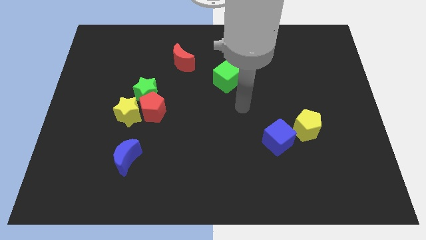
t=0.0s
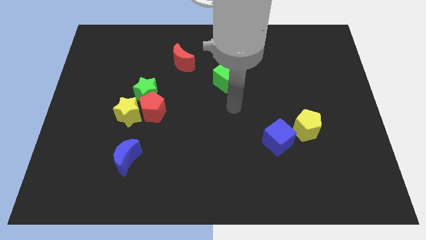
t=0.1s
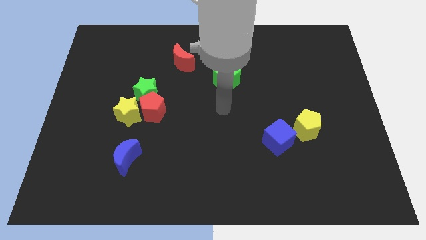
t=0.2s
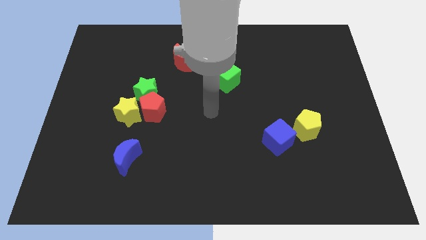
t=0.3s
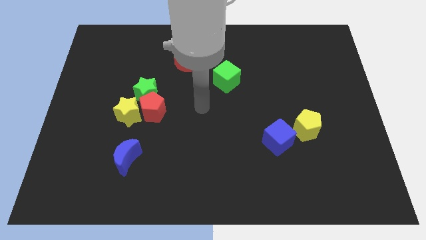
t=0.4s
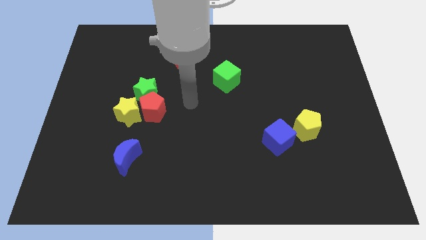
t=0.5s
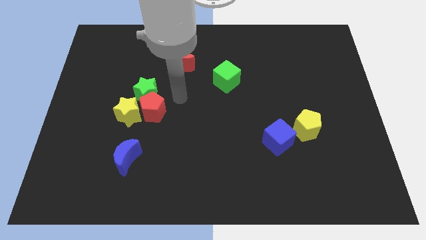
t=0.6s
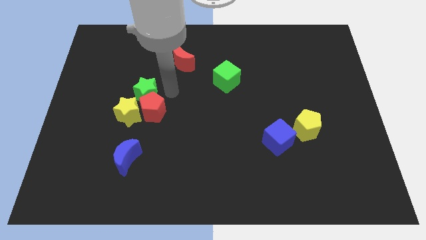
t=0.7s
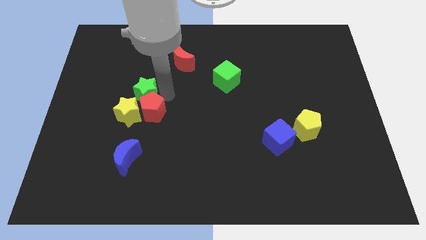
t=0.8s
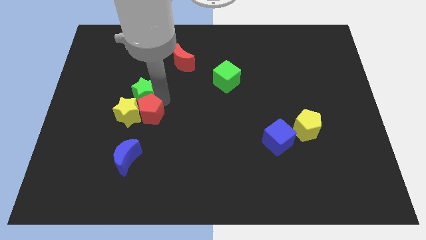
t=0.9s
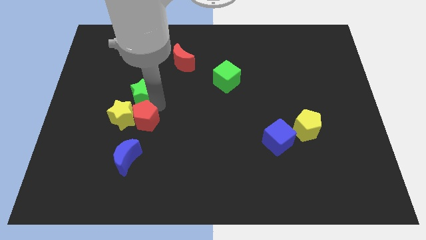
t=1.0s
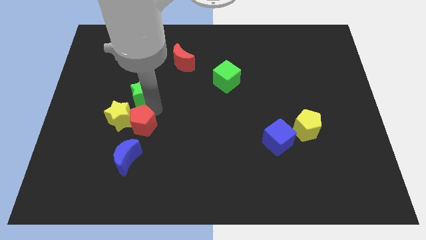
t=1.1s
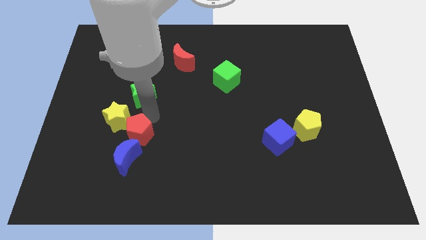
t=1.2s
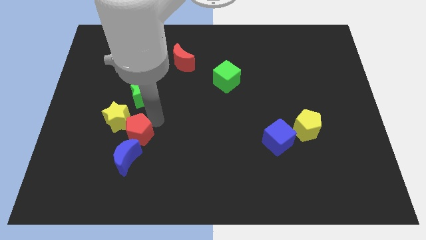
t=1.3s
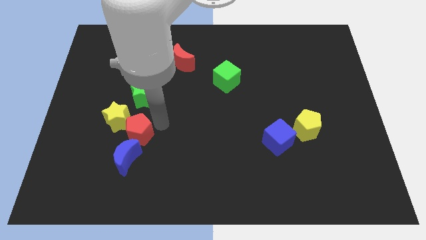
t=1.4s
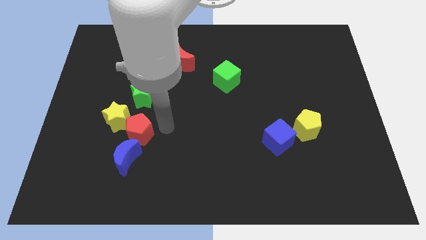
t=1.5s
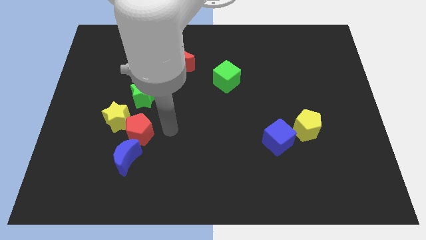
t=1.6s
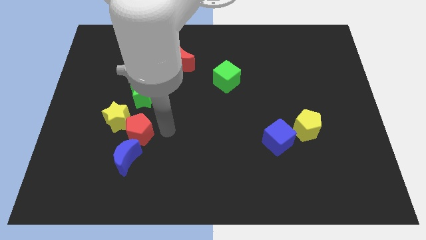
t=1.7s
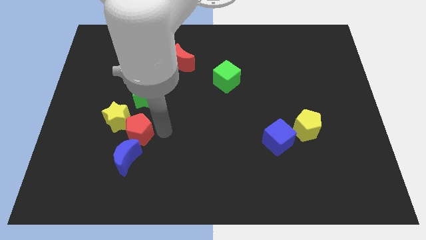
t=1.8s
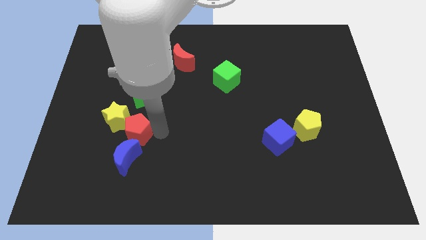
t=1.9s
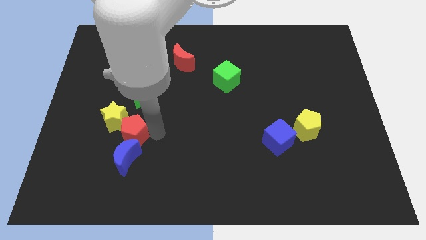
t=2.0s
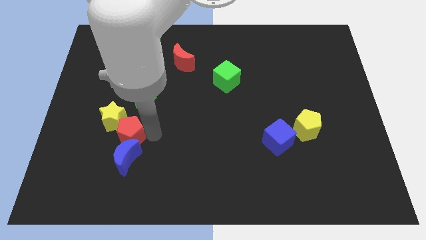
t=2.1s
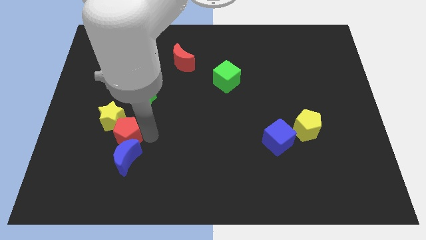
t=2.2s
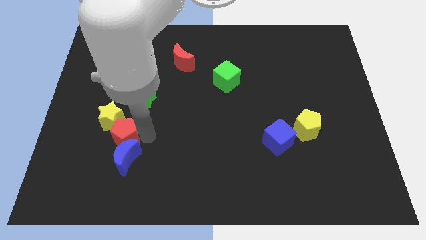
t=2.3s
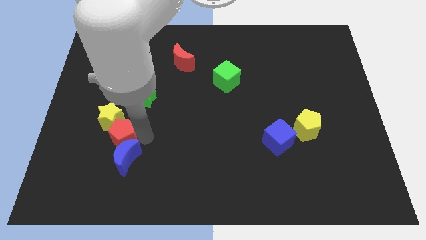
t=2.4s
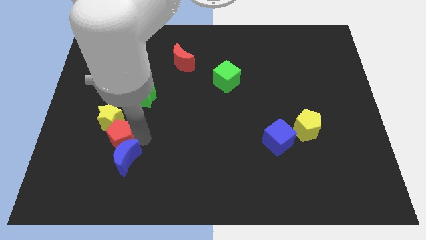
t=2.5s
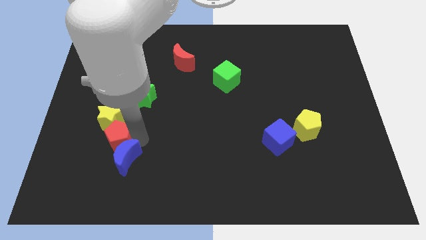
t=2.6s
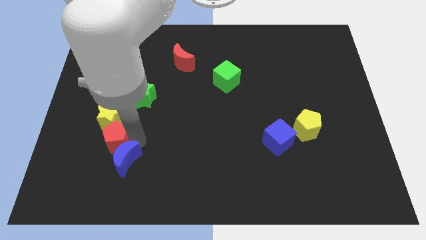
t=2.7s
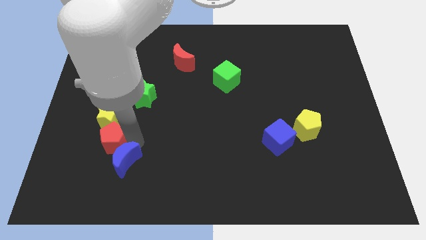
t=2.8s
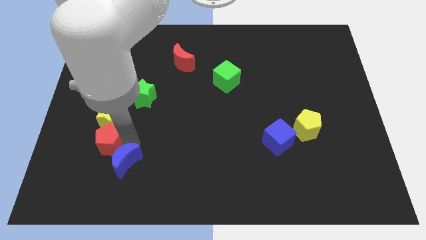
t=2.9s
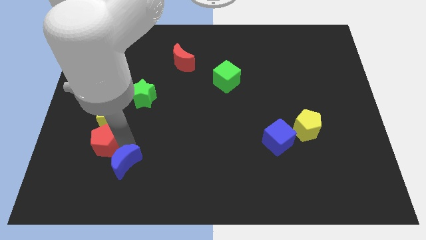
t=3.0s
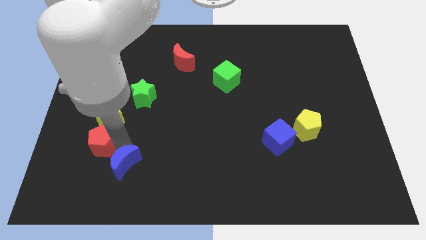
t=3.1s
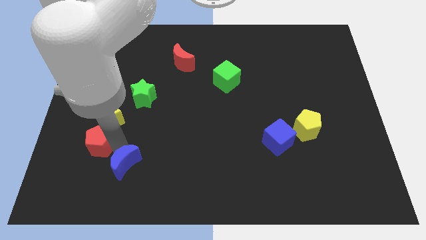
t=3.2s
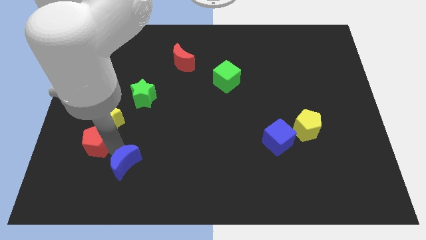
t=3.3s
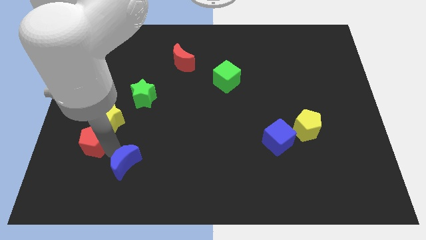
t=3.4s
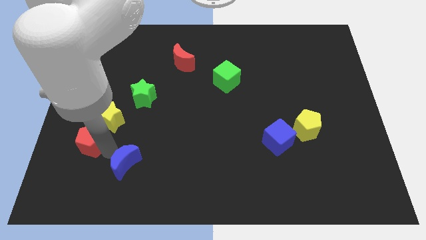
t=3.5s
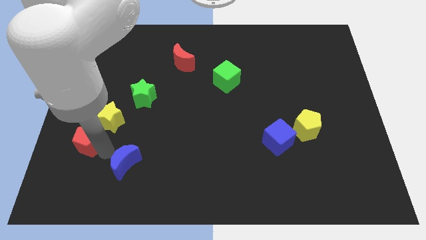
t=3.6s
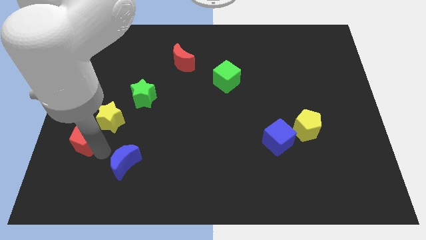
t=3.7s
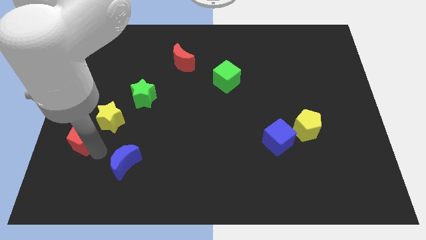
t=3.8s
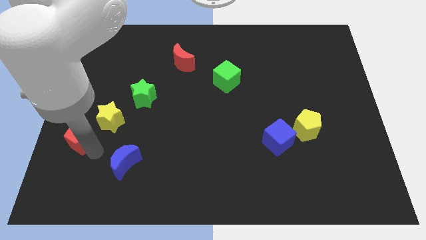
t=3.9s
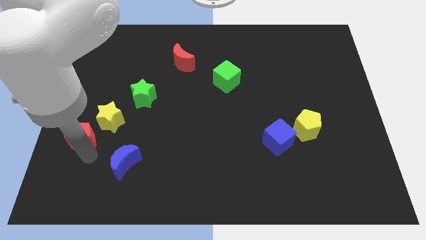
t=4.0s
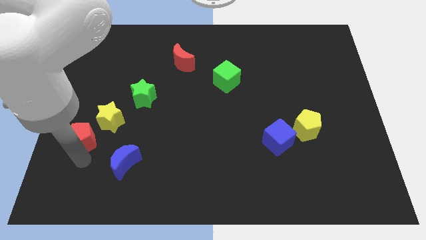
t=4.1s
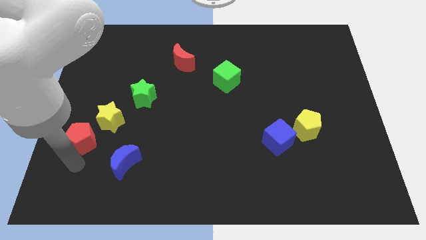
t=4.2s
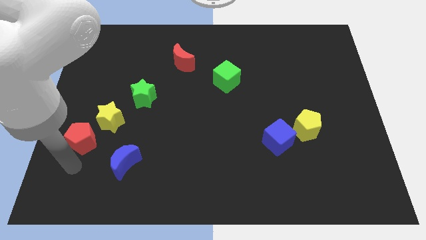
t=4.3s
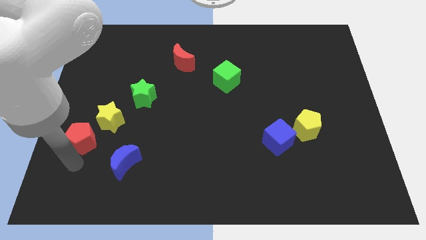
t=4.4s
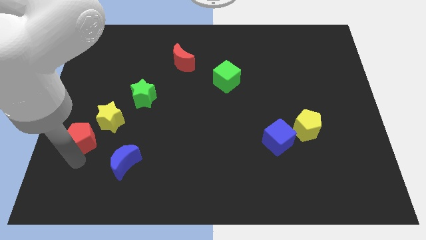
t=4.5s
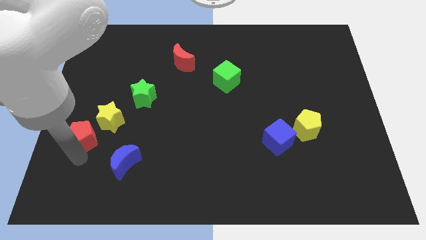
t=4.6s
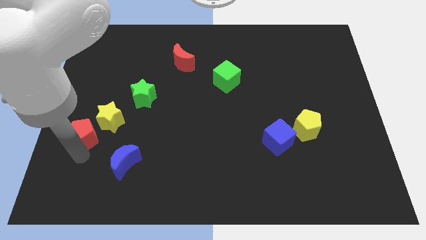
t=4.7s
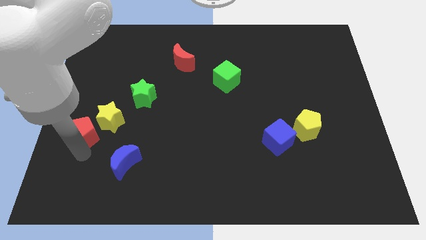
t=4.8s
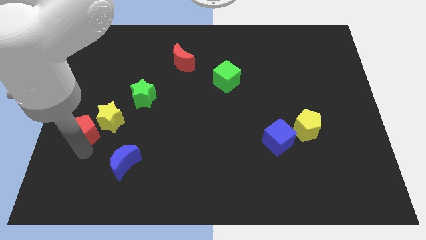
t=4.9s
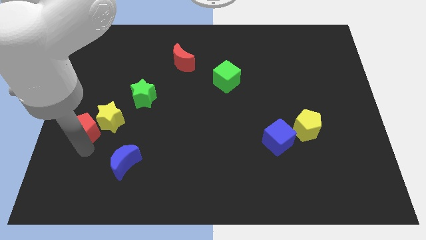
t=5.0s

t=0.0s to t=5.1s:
slide the red pentagon to the center left

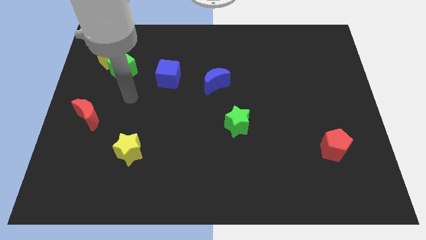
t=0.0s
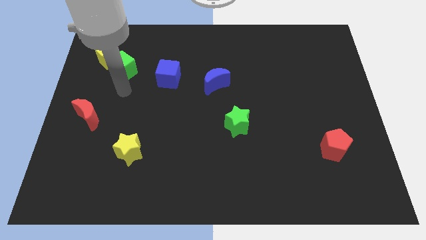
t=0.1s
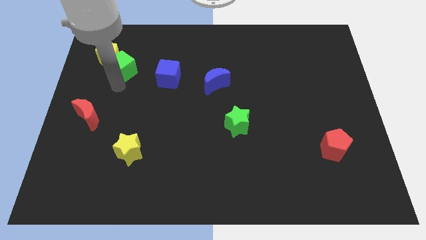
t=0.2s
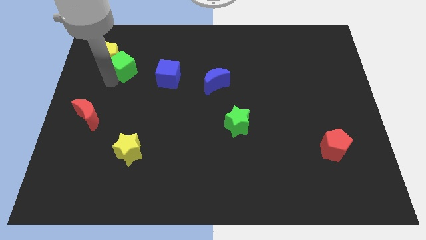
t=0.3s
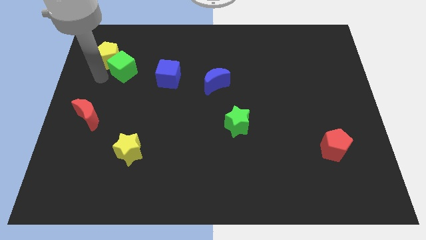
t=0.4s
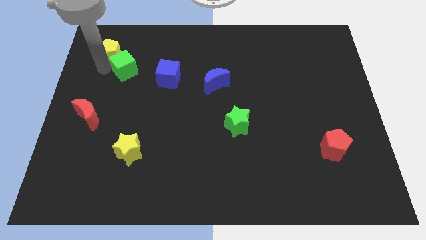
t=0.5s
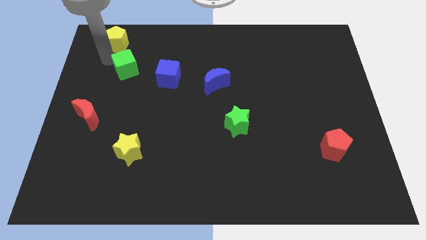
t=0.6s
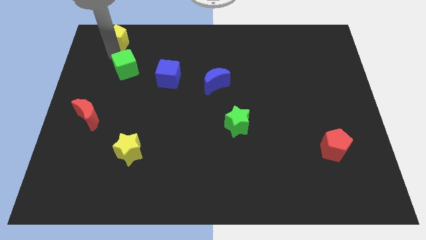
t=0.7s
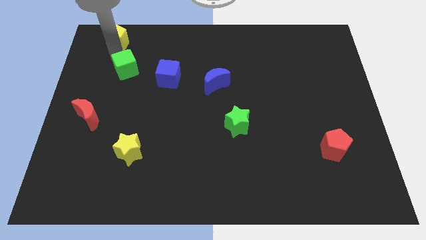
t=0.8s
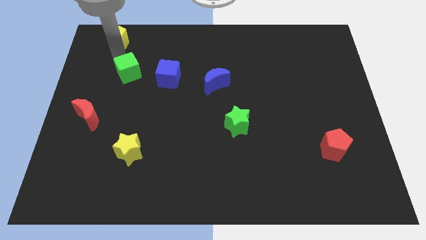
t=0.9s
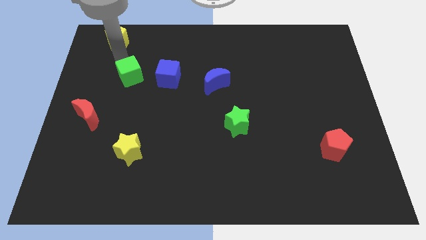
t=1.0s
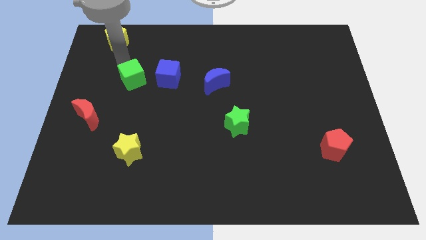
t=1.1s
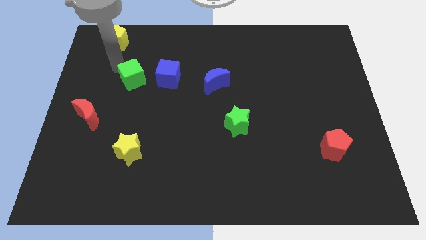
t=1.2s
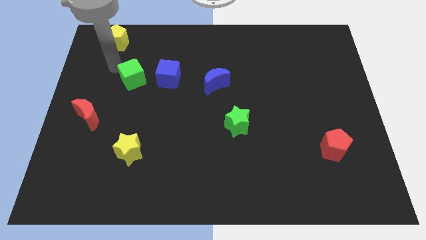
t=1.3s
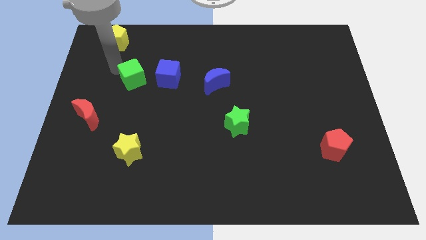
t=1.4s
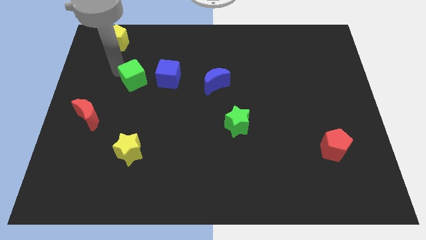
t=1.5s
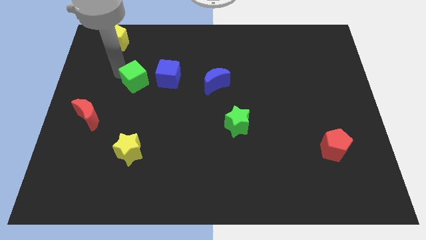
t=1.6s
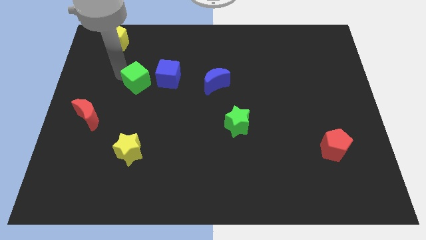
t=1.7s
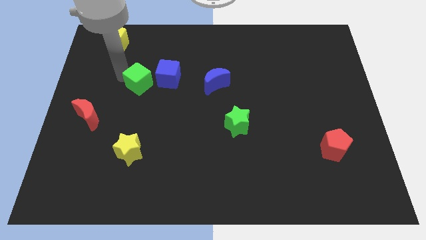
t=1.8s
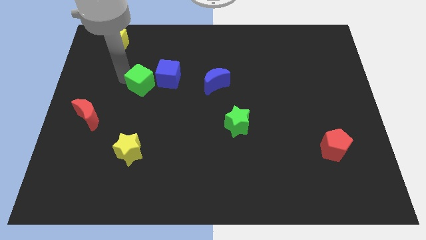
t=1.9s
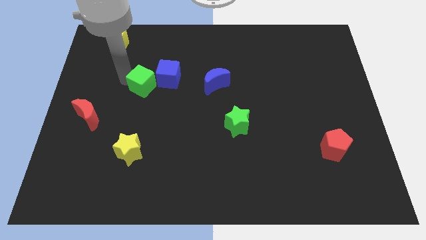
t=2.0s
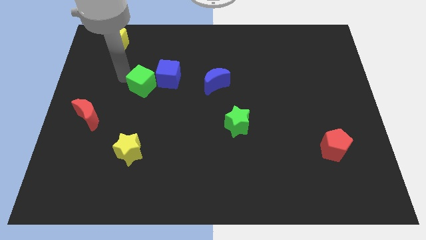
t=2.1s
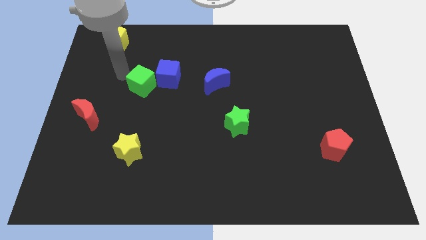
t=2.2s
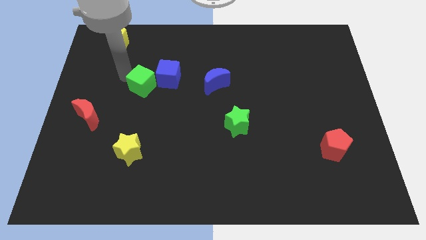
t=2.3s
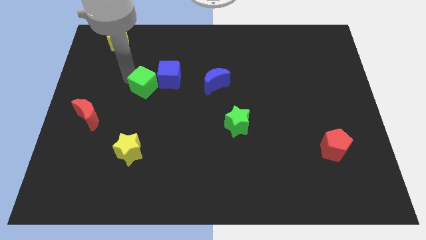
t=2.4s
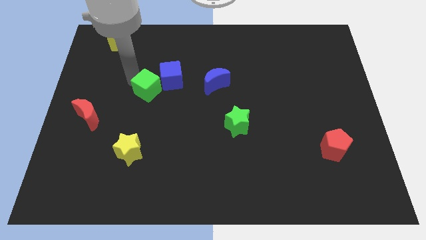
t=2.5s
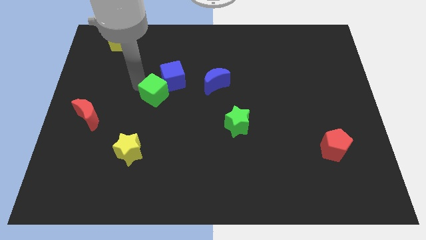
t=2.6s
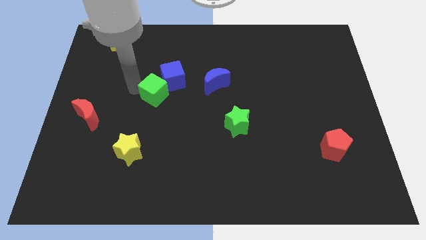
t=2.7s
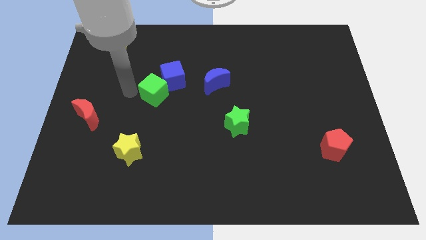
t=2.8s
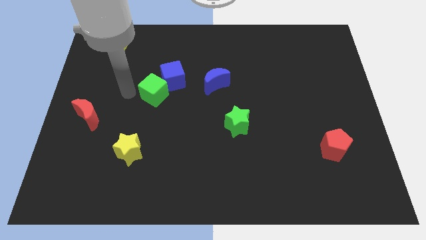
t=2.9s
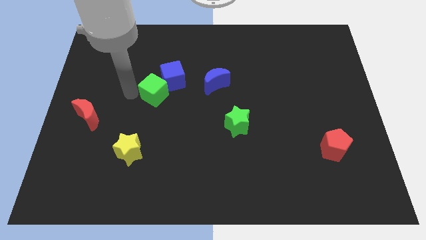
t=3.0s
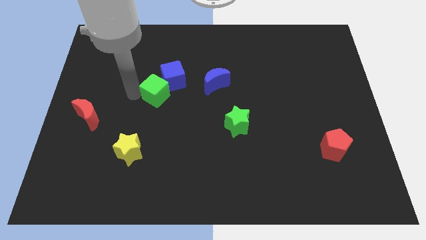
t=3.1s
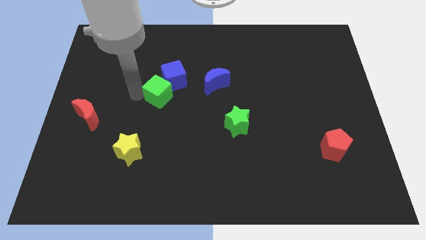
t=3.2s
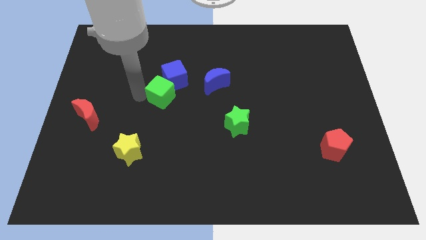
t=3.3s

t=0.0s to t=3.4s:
move the green cube to the center
